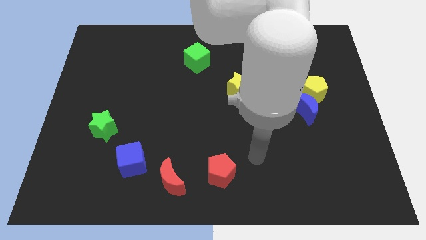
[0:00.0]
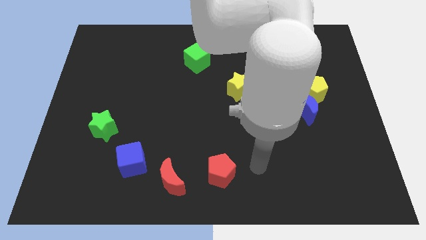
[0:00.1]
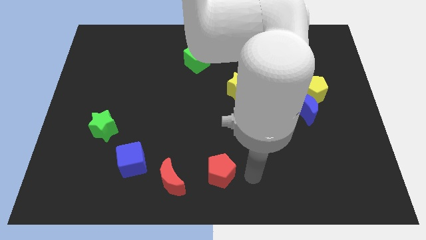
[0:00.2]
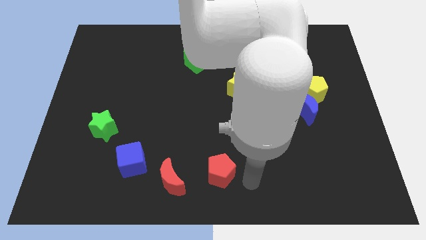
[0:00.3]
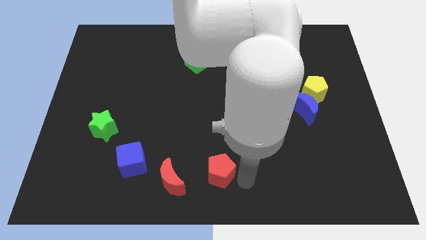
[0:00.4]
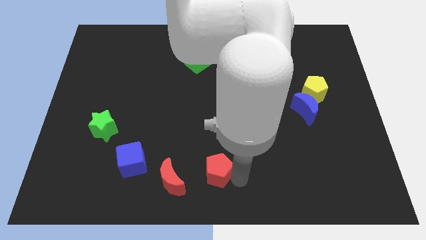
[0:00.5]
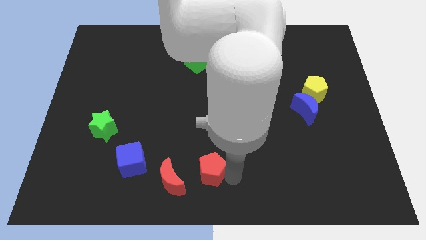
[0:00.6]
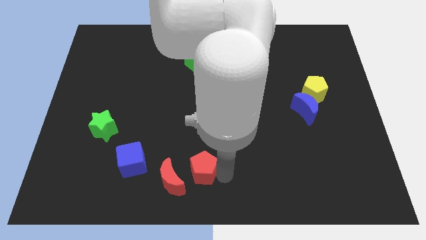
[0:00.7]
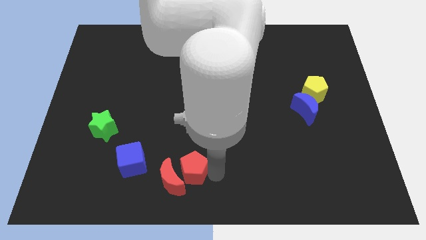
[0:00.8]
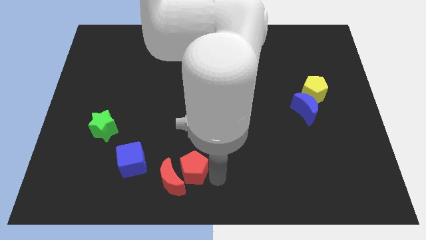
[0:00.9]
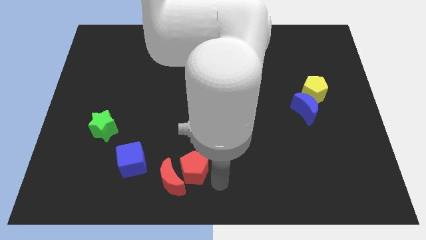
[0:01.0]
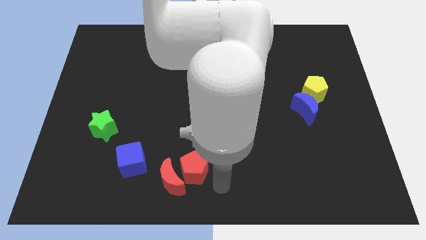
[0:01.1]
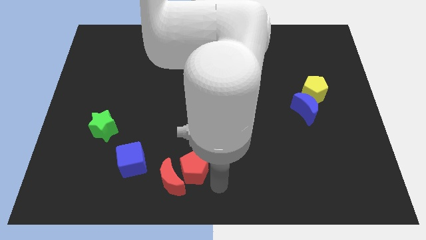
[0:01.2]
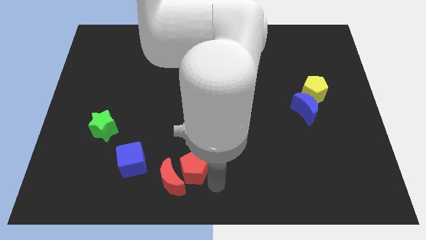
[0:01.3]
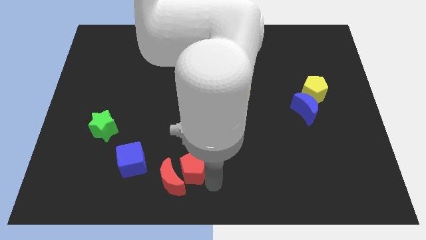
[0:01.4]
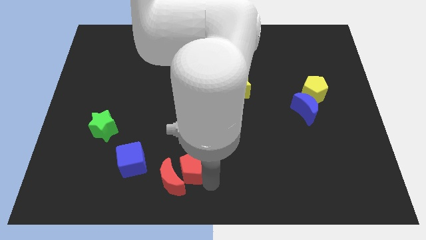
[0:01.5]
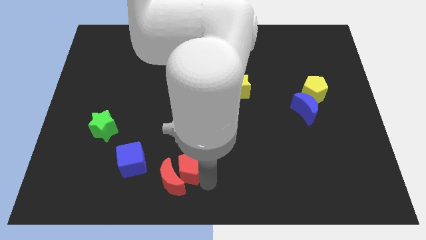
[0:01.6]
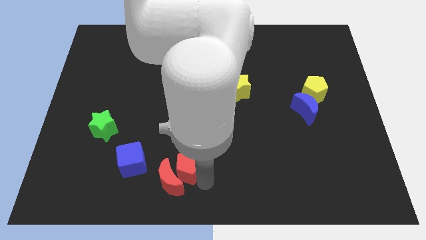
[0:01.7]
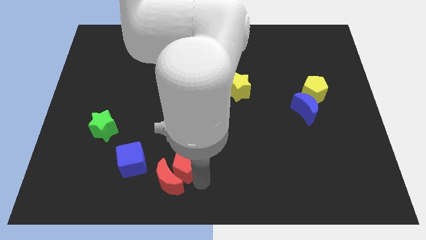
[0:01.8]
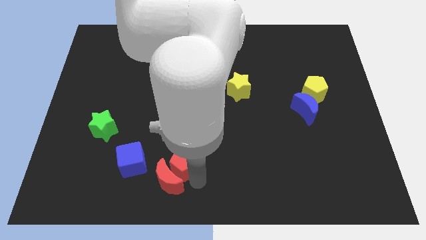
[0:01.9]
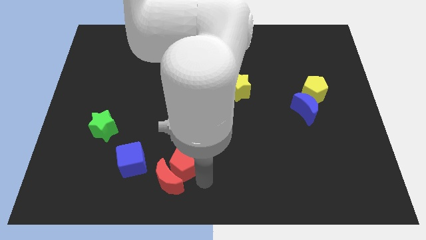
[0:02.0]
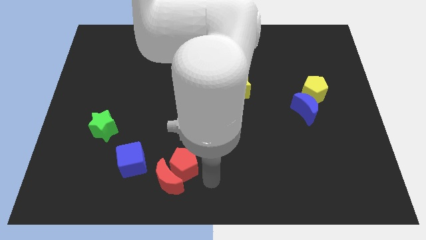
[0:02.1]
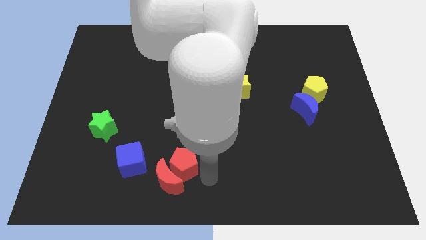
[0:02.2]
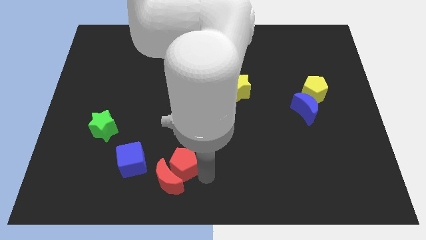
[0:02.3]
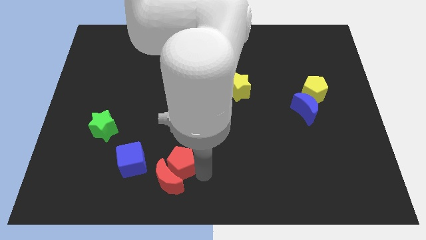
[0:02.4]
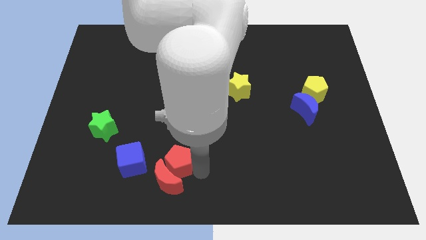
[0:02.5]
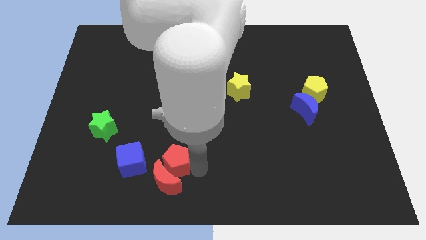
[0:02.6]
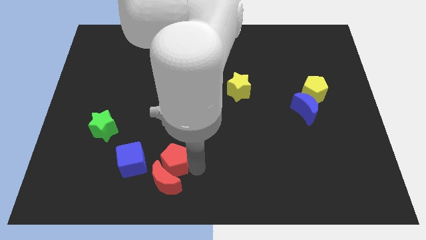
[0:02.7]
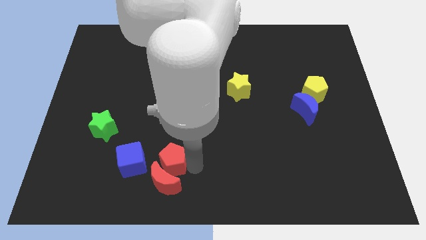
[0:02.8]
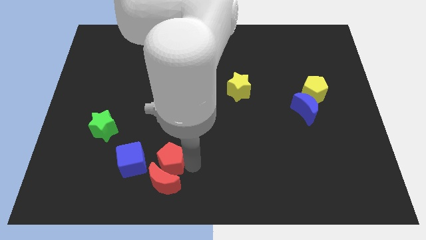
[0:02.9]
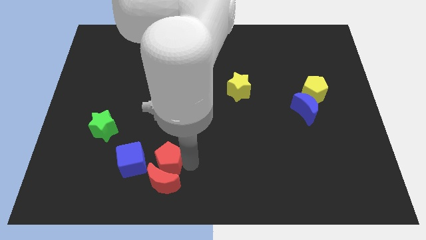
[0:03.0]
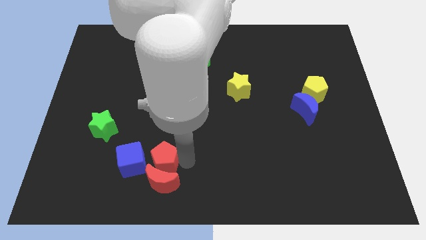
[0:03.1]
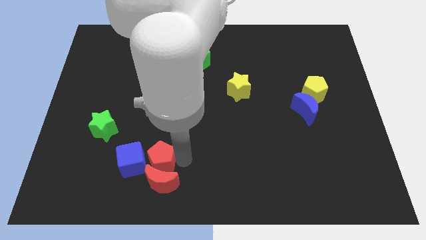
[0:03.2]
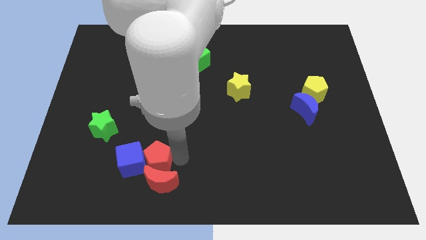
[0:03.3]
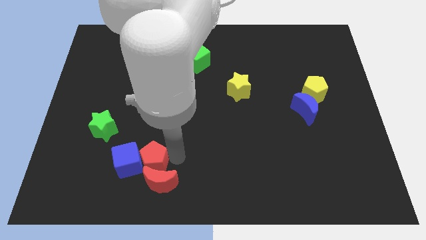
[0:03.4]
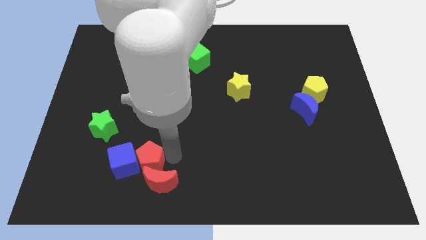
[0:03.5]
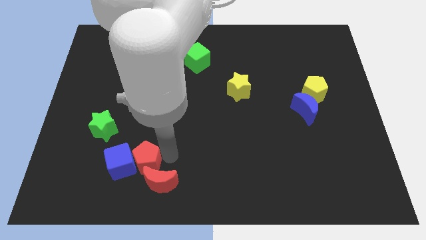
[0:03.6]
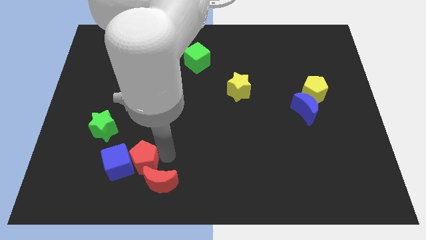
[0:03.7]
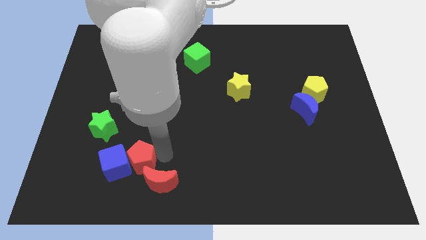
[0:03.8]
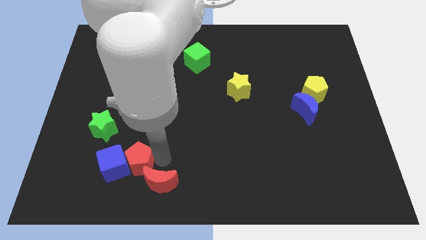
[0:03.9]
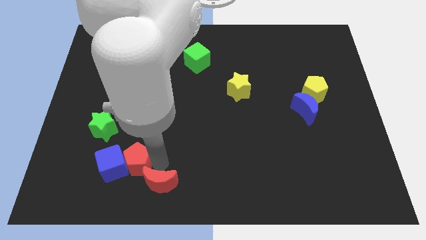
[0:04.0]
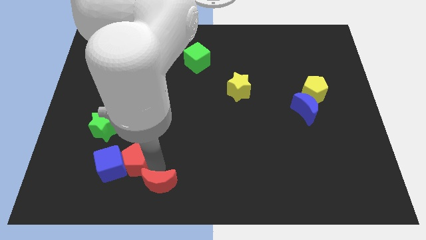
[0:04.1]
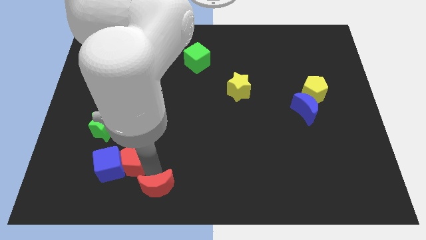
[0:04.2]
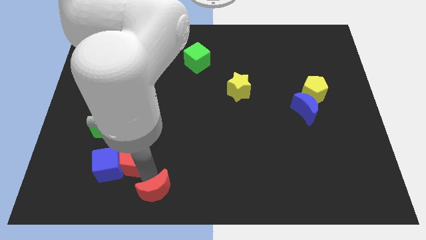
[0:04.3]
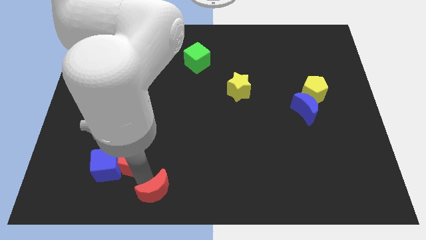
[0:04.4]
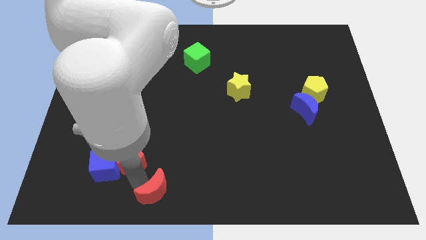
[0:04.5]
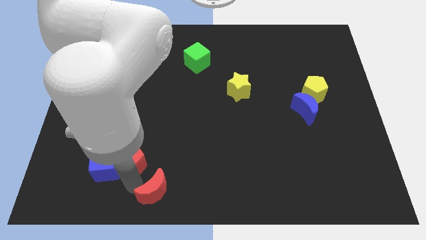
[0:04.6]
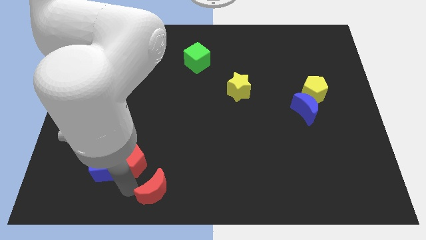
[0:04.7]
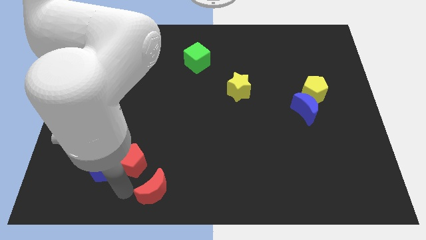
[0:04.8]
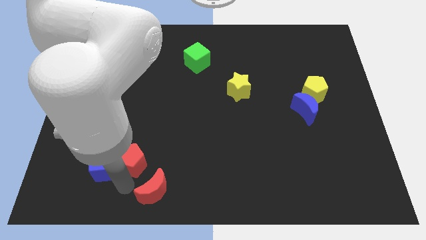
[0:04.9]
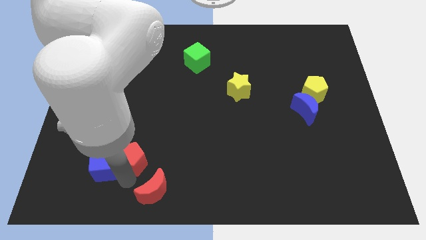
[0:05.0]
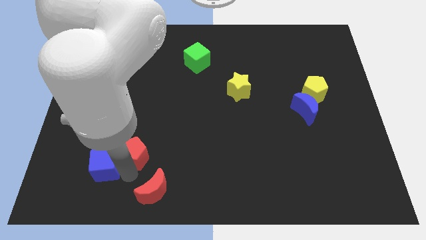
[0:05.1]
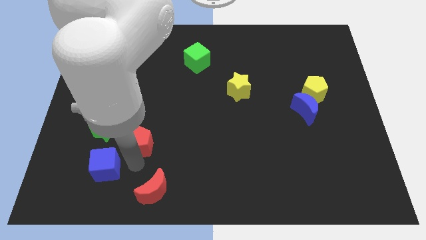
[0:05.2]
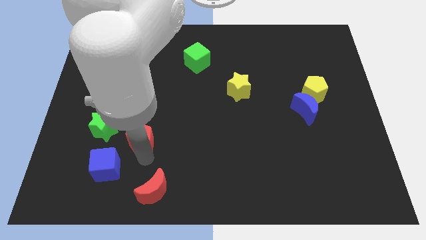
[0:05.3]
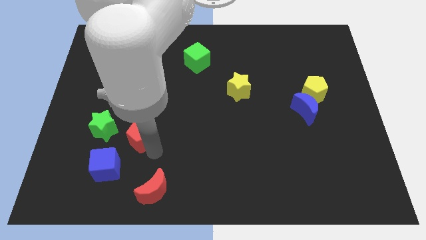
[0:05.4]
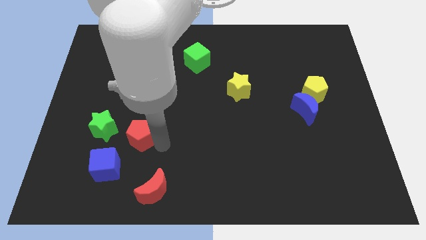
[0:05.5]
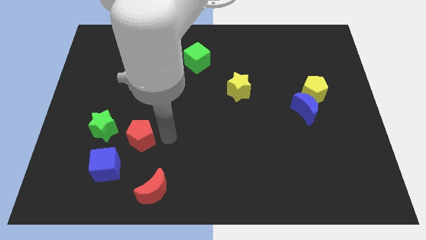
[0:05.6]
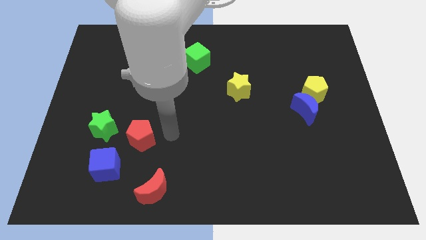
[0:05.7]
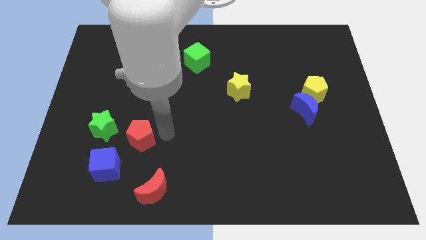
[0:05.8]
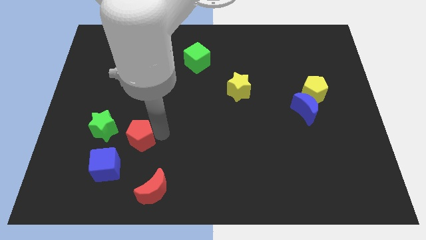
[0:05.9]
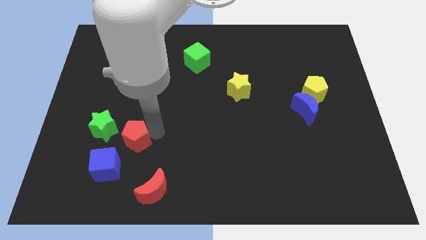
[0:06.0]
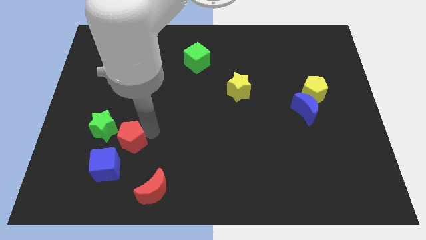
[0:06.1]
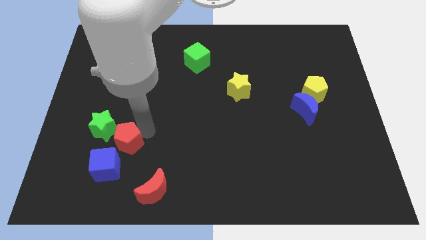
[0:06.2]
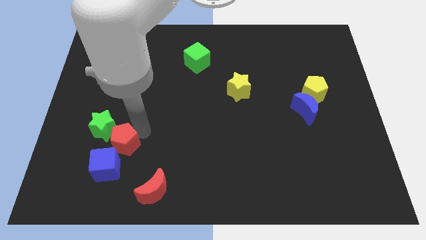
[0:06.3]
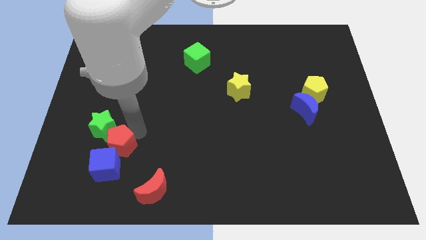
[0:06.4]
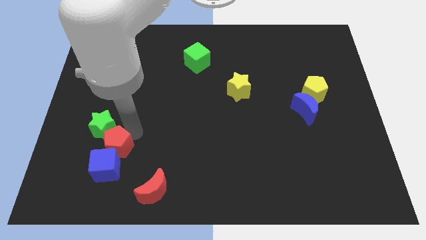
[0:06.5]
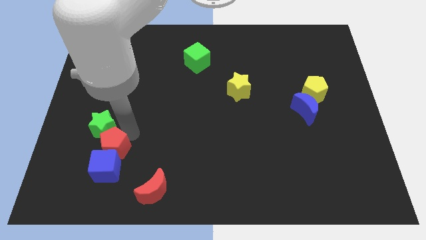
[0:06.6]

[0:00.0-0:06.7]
slide the red pentagon to the top left of the blue cube

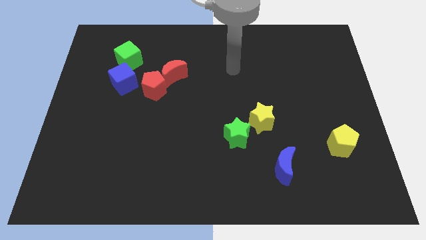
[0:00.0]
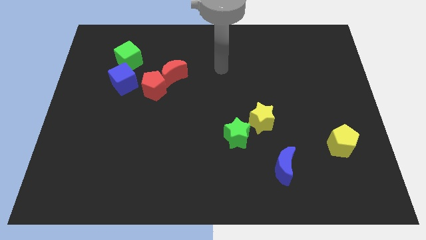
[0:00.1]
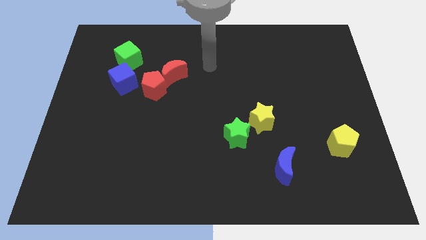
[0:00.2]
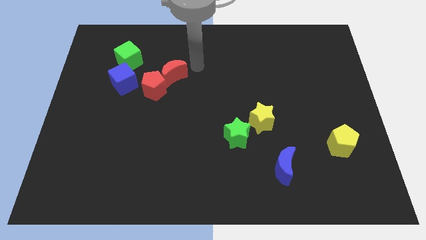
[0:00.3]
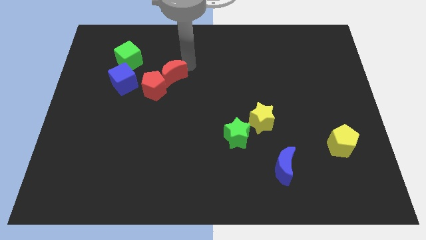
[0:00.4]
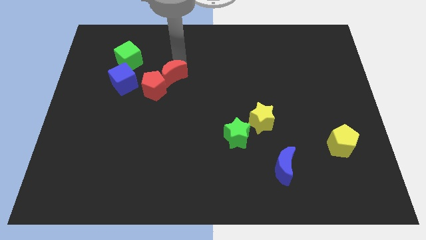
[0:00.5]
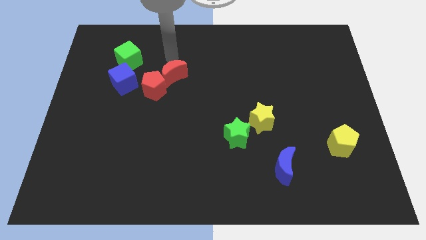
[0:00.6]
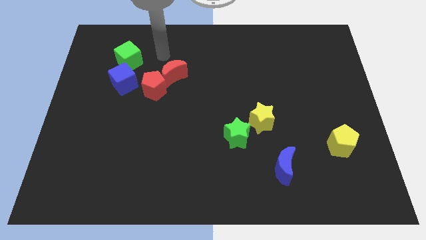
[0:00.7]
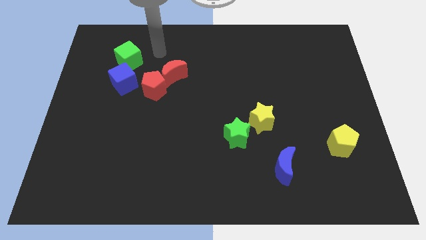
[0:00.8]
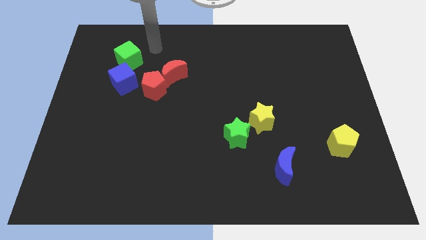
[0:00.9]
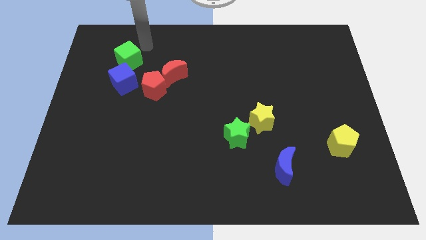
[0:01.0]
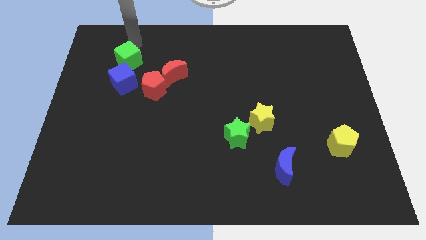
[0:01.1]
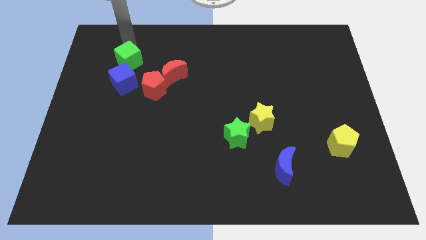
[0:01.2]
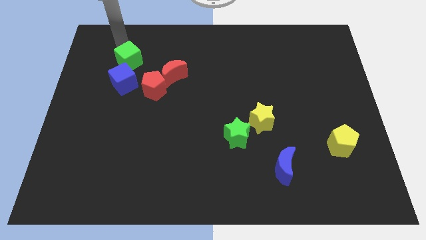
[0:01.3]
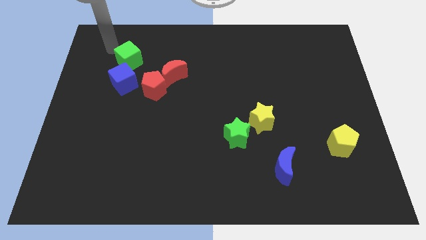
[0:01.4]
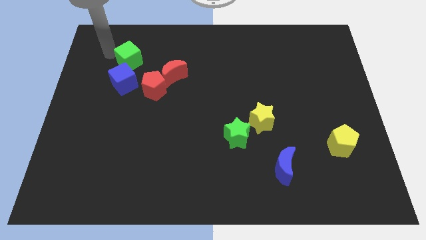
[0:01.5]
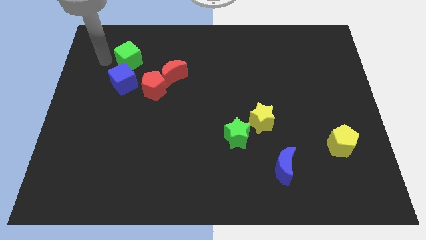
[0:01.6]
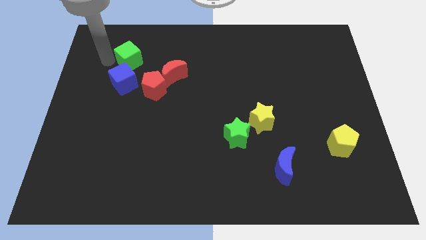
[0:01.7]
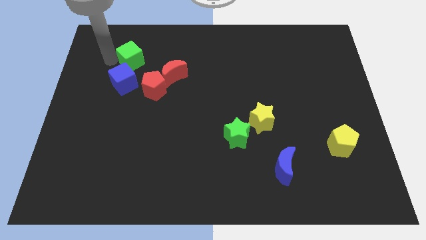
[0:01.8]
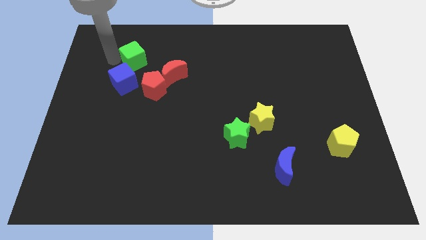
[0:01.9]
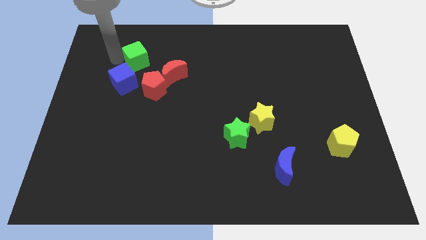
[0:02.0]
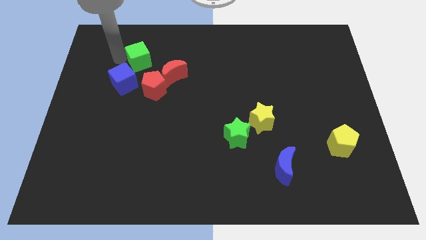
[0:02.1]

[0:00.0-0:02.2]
slide the green cube above the red pentagon
